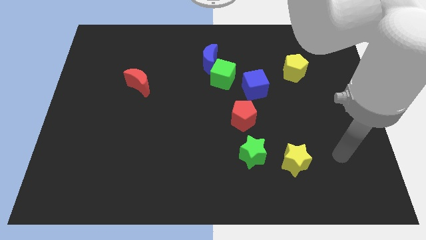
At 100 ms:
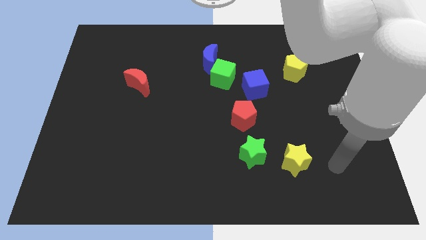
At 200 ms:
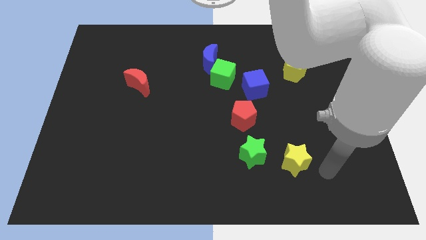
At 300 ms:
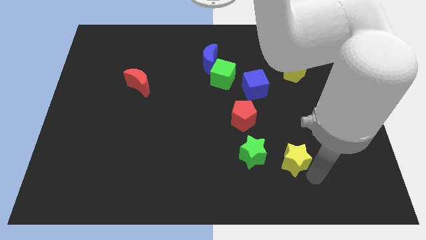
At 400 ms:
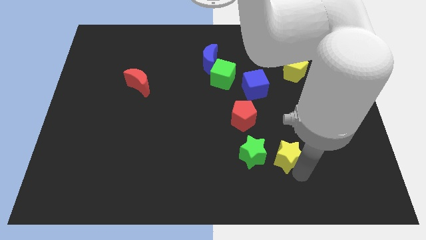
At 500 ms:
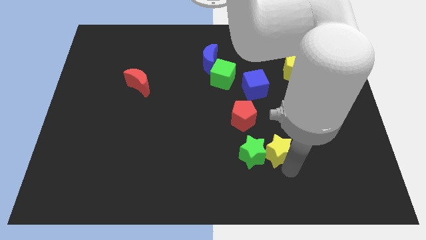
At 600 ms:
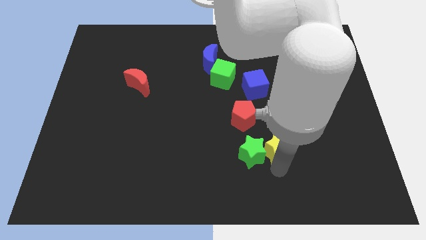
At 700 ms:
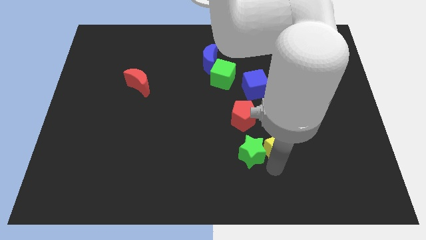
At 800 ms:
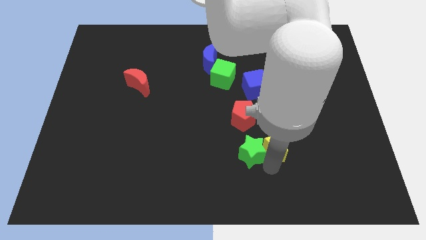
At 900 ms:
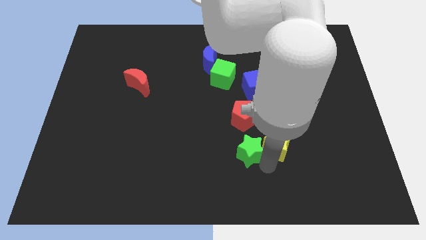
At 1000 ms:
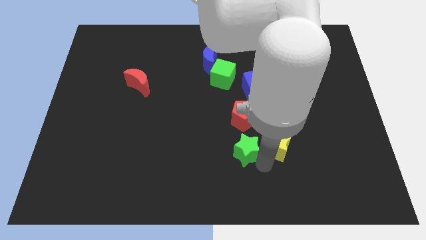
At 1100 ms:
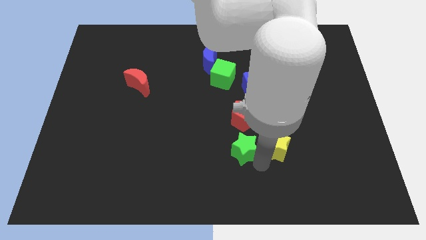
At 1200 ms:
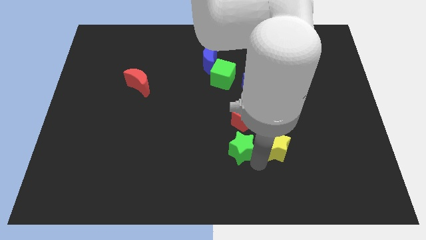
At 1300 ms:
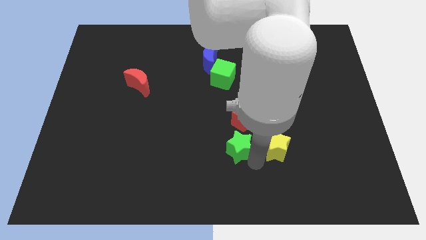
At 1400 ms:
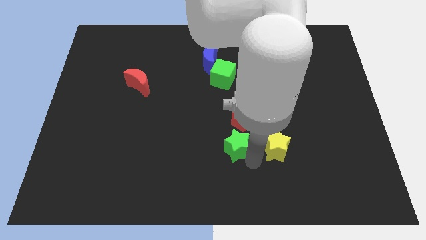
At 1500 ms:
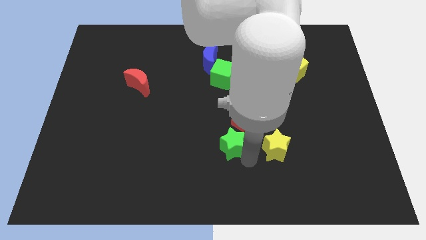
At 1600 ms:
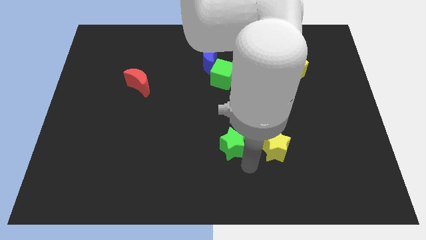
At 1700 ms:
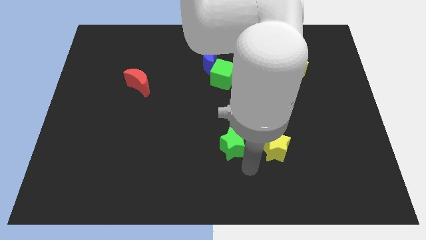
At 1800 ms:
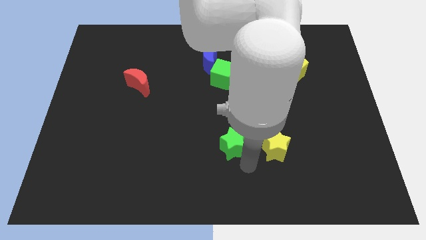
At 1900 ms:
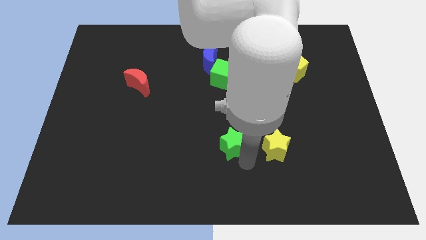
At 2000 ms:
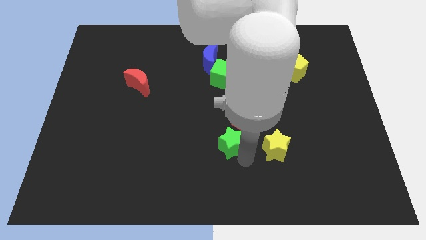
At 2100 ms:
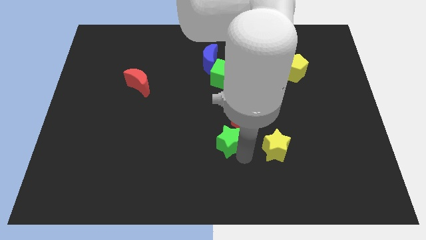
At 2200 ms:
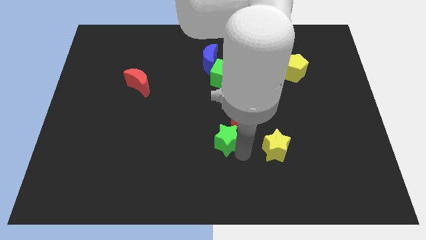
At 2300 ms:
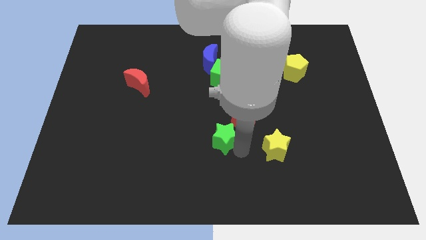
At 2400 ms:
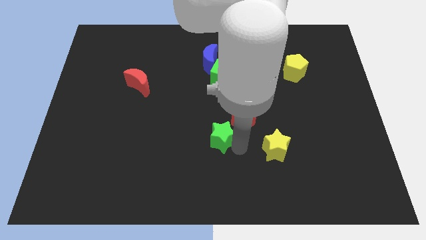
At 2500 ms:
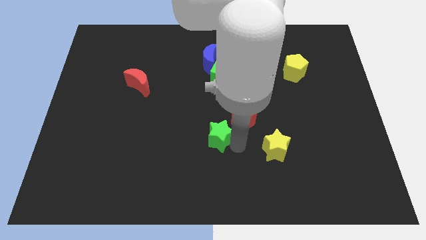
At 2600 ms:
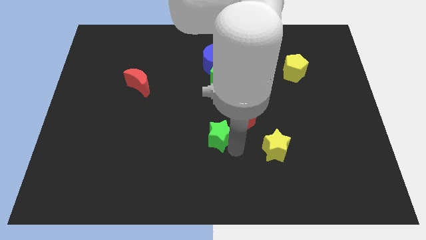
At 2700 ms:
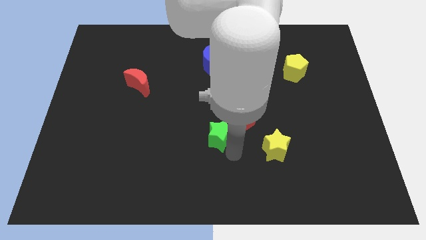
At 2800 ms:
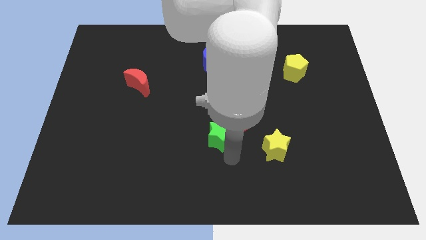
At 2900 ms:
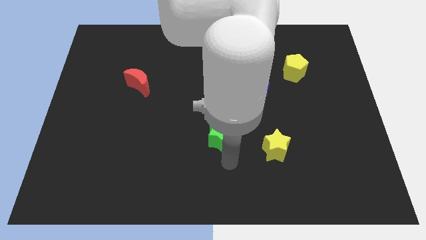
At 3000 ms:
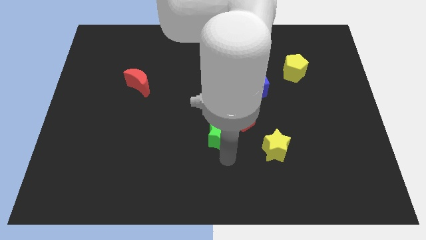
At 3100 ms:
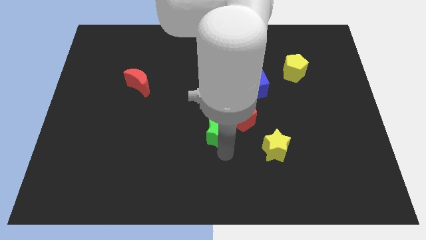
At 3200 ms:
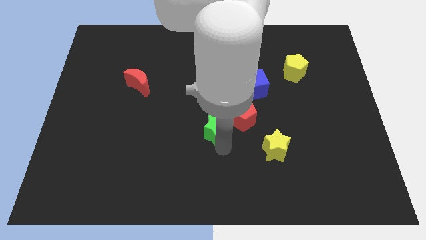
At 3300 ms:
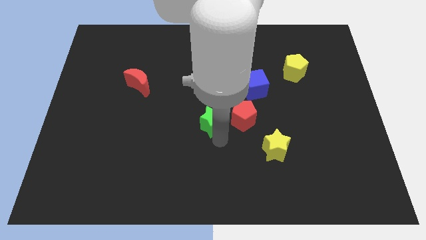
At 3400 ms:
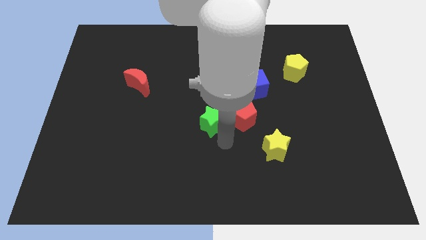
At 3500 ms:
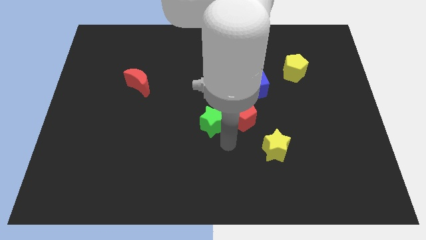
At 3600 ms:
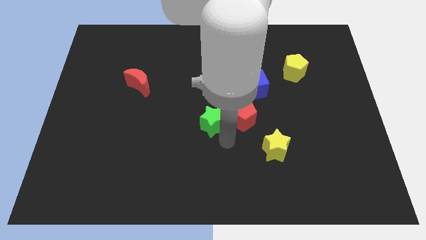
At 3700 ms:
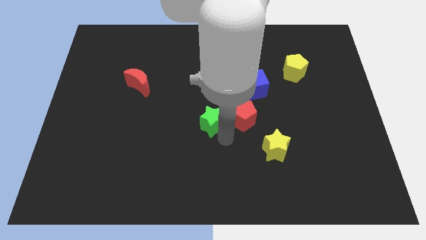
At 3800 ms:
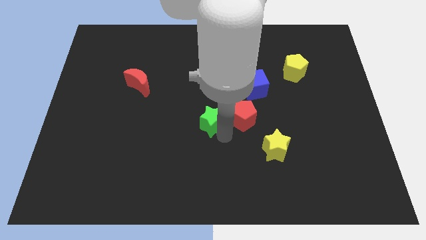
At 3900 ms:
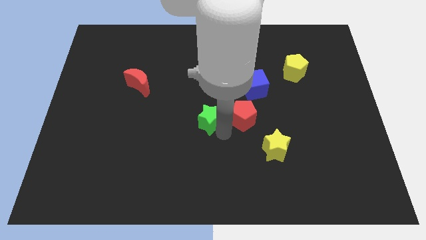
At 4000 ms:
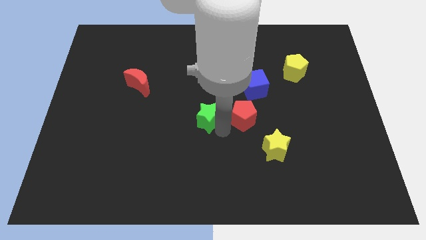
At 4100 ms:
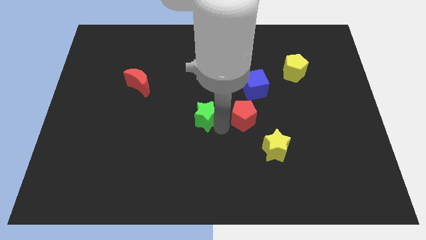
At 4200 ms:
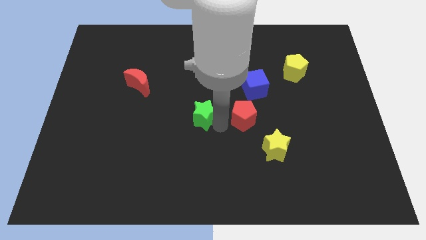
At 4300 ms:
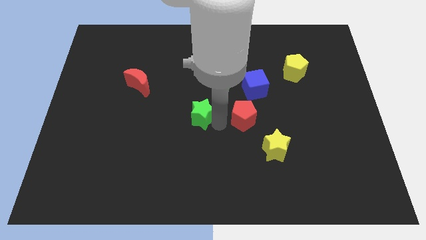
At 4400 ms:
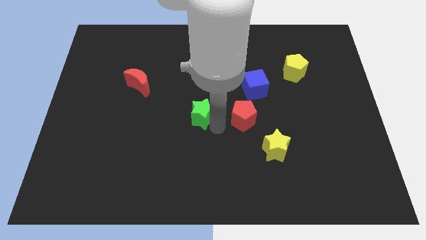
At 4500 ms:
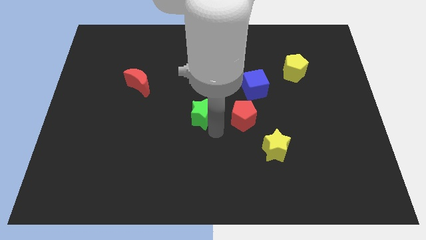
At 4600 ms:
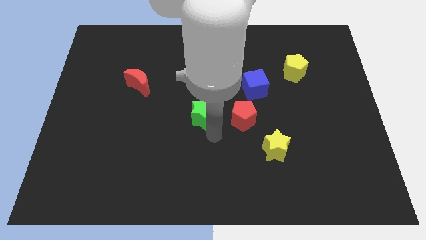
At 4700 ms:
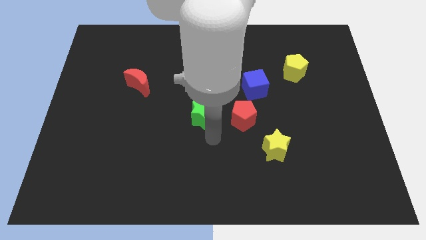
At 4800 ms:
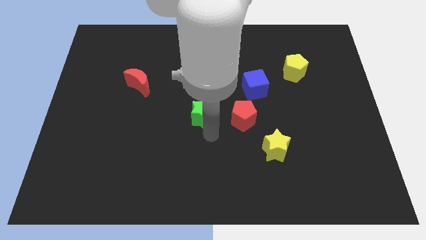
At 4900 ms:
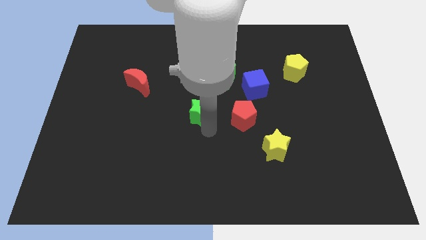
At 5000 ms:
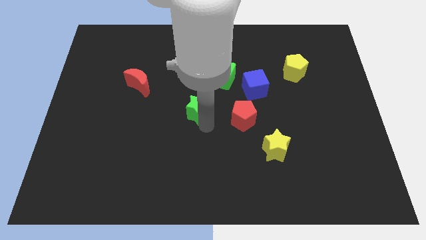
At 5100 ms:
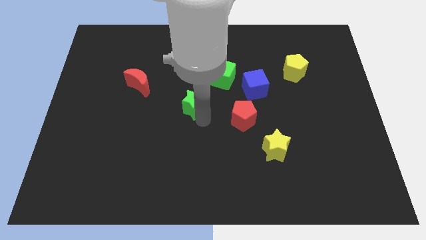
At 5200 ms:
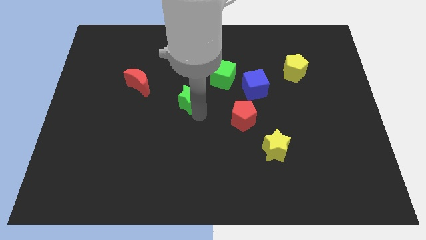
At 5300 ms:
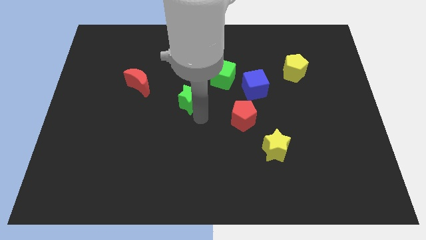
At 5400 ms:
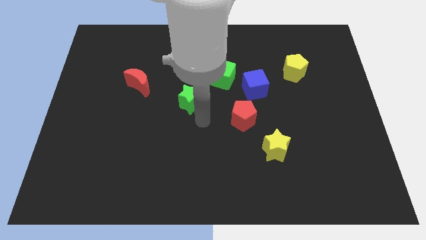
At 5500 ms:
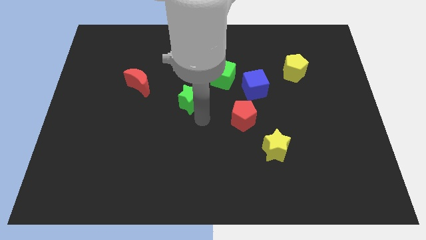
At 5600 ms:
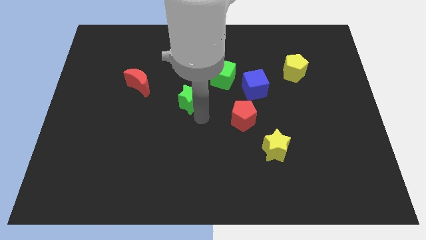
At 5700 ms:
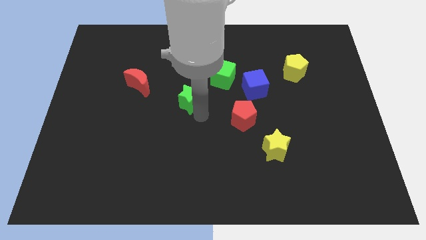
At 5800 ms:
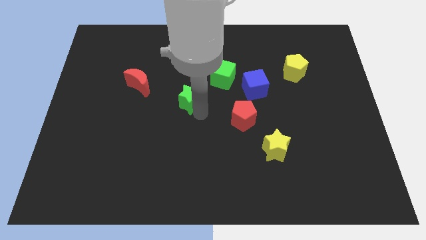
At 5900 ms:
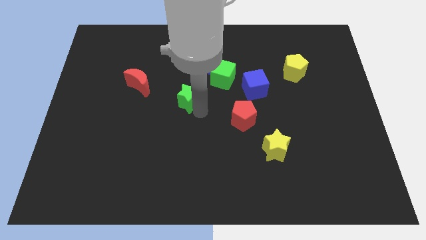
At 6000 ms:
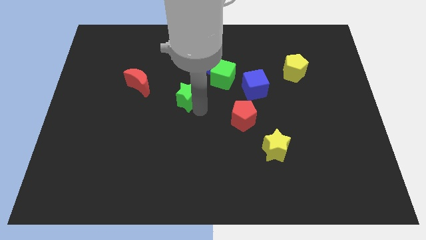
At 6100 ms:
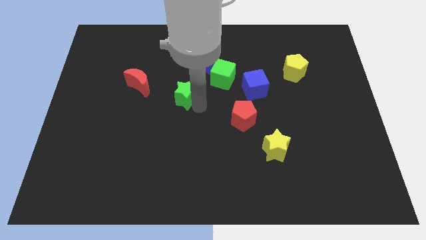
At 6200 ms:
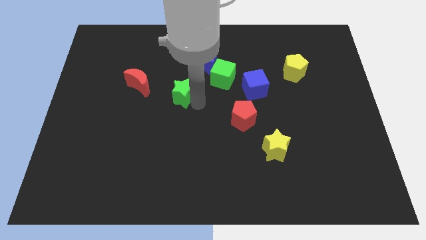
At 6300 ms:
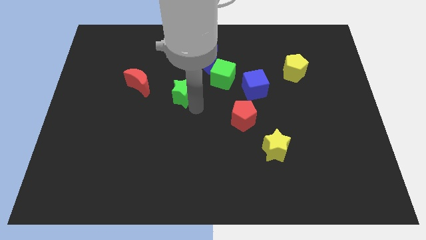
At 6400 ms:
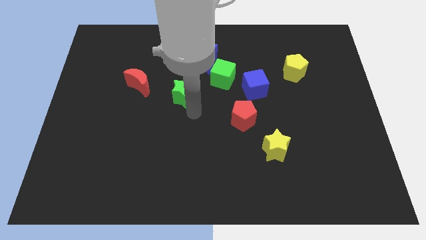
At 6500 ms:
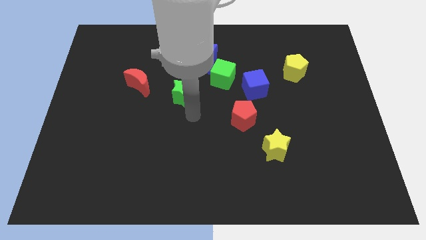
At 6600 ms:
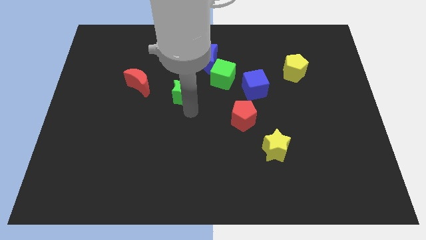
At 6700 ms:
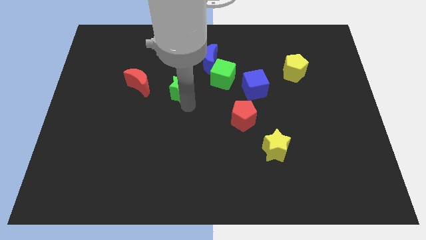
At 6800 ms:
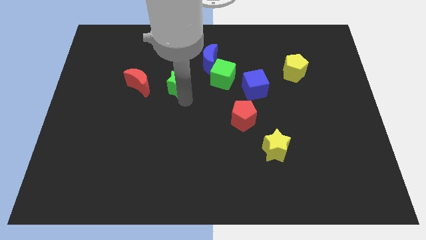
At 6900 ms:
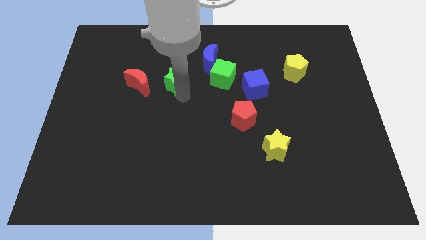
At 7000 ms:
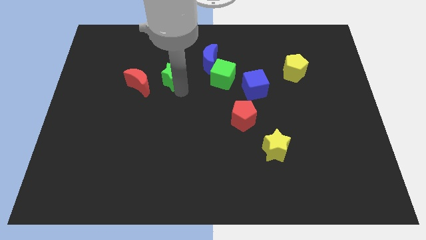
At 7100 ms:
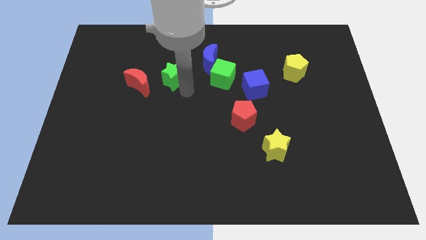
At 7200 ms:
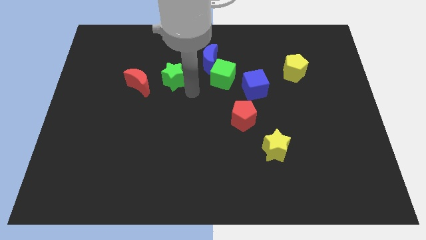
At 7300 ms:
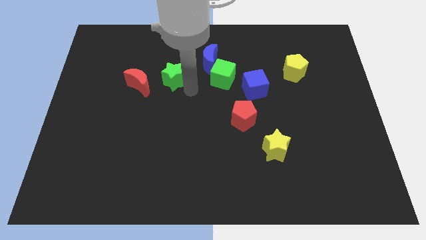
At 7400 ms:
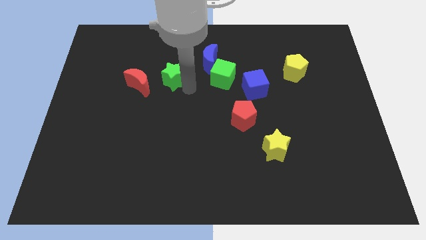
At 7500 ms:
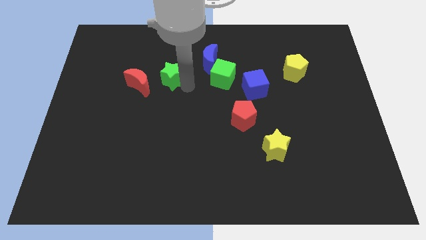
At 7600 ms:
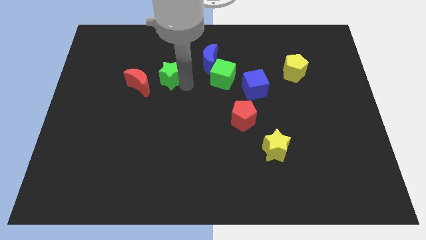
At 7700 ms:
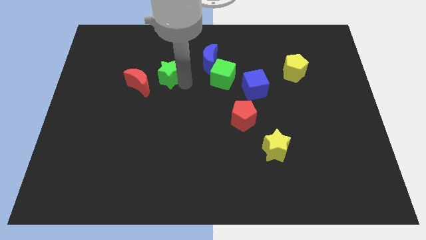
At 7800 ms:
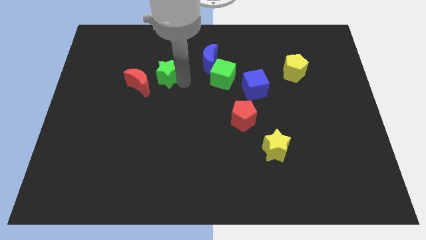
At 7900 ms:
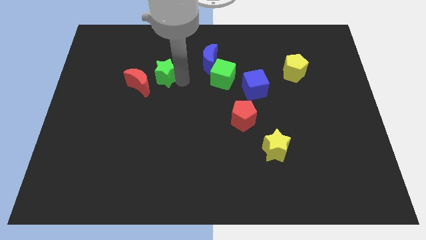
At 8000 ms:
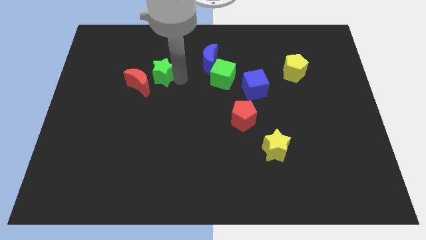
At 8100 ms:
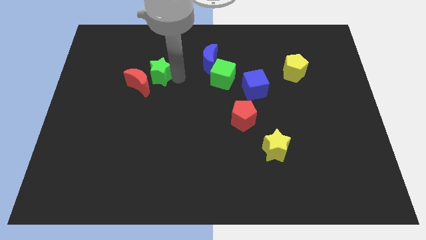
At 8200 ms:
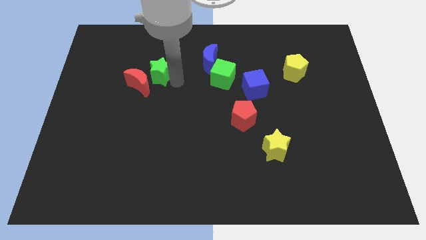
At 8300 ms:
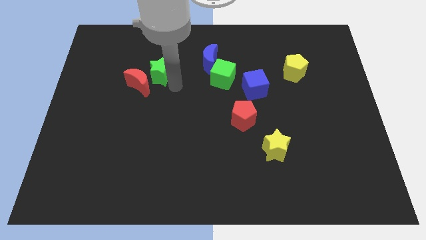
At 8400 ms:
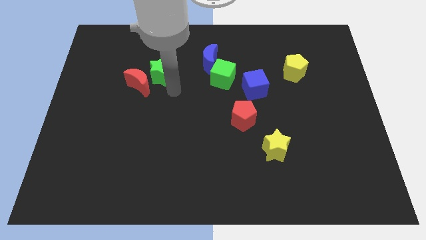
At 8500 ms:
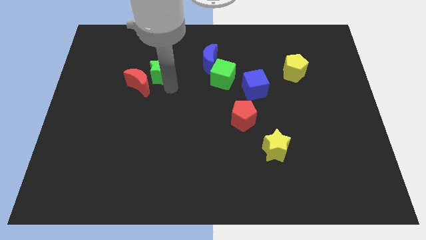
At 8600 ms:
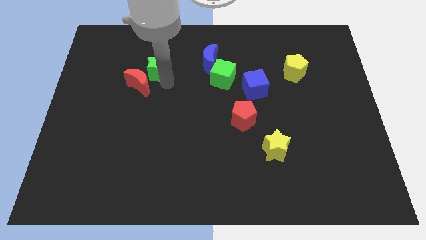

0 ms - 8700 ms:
move the green star to the top side of the red moon
